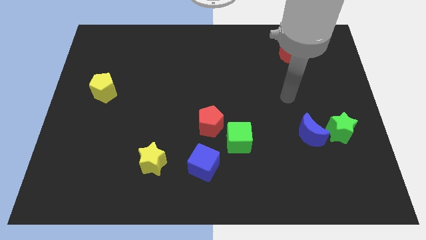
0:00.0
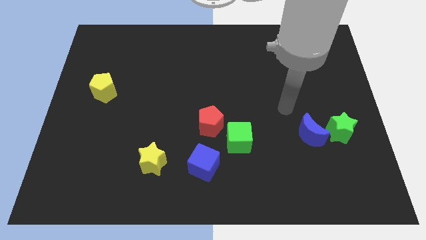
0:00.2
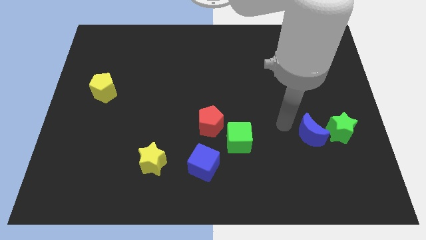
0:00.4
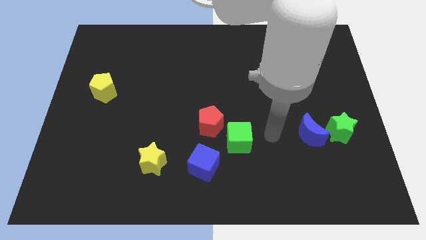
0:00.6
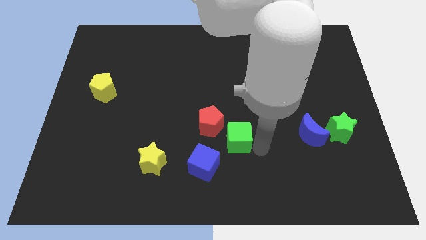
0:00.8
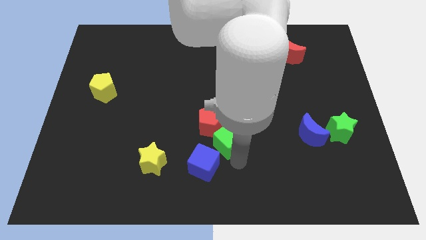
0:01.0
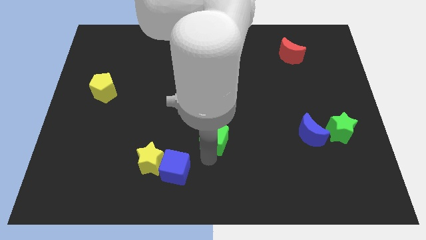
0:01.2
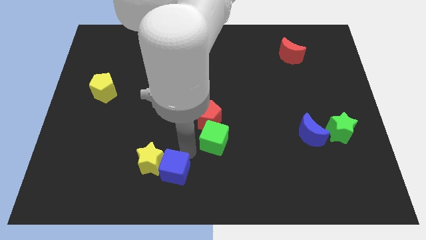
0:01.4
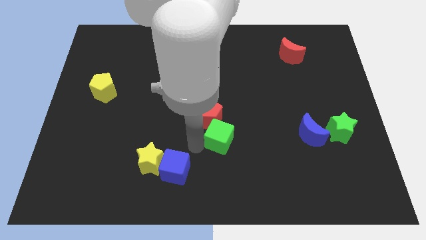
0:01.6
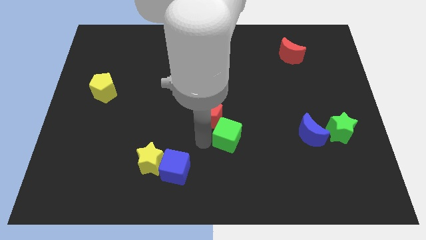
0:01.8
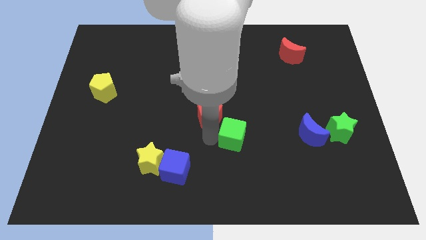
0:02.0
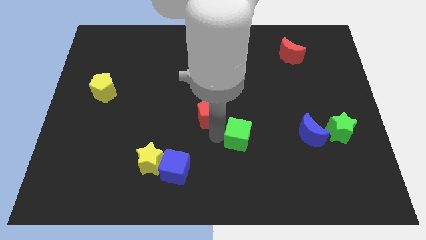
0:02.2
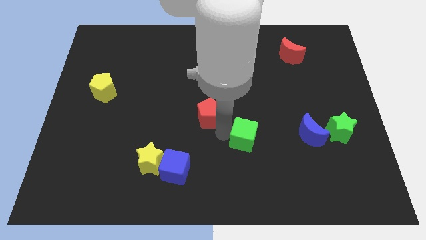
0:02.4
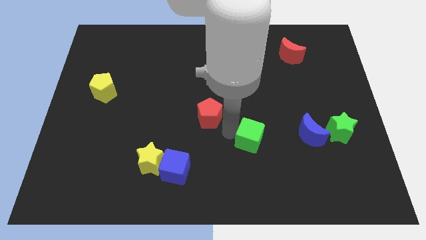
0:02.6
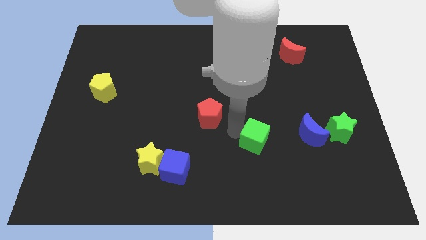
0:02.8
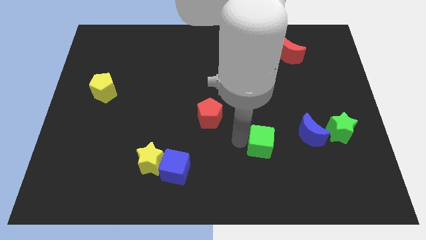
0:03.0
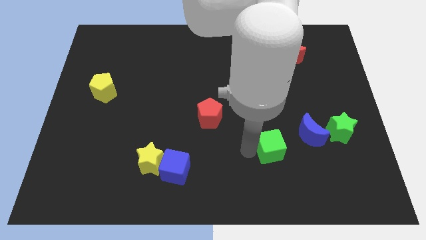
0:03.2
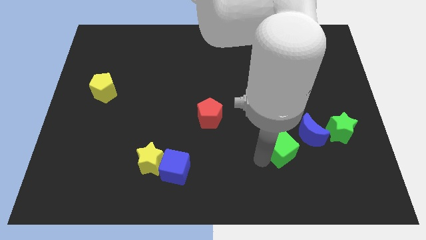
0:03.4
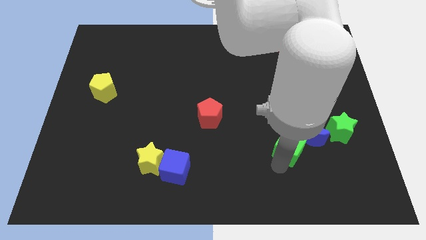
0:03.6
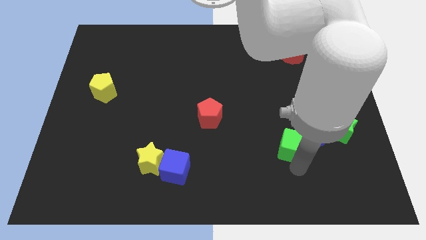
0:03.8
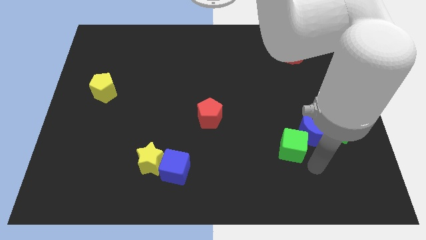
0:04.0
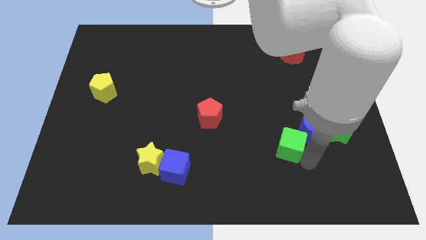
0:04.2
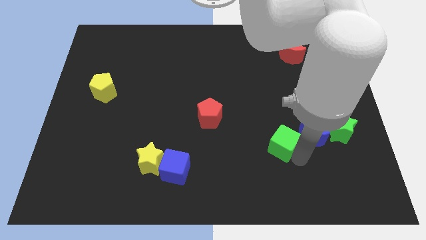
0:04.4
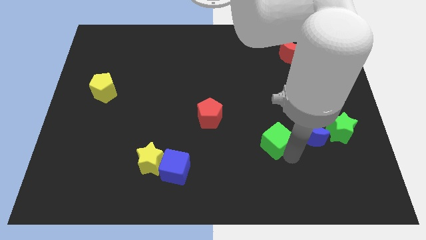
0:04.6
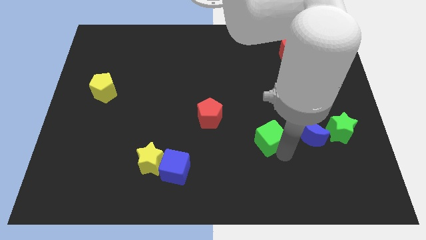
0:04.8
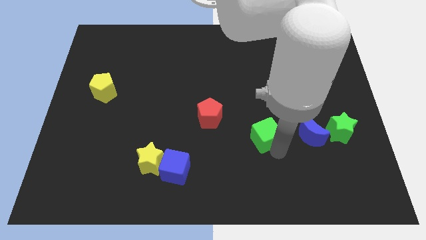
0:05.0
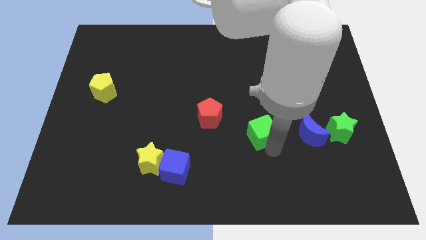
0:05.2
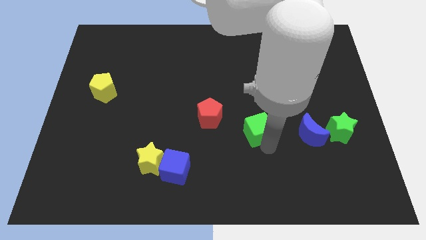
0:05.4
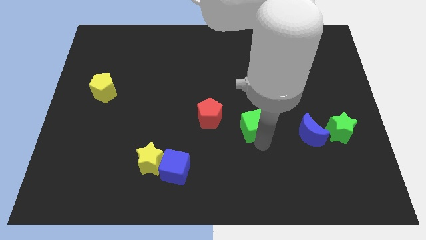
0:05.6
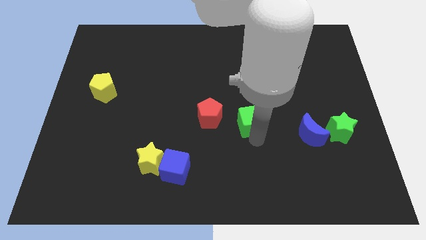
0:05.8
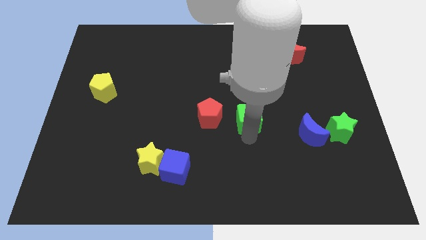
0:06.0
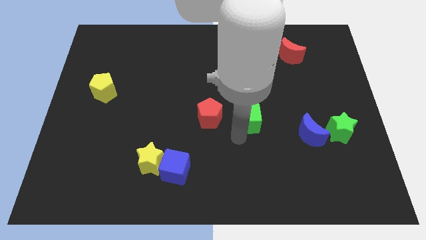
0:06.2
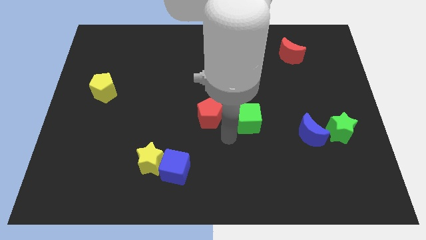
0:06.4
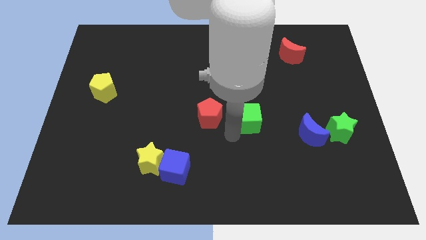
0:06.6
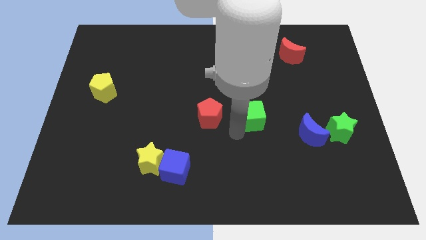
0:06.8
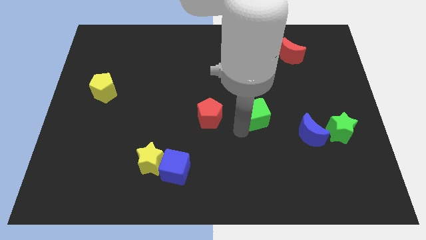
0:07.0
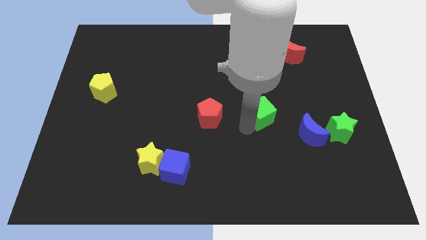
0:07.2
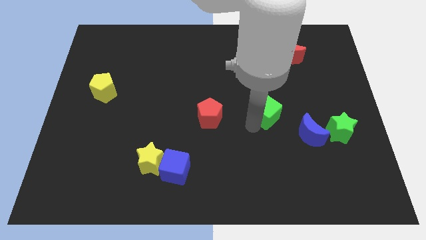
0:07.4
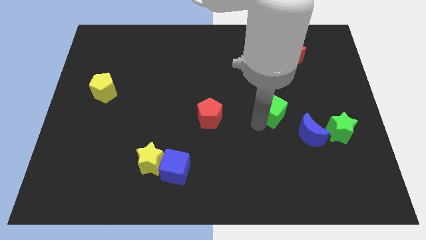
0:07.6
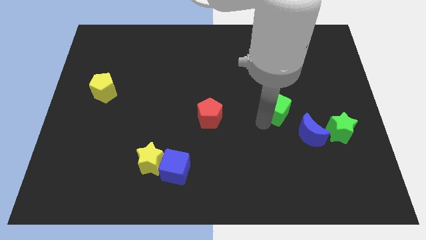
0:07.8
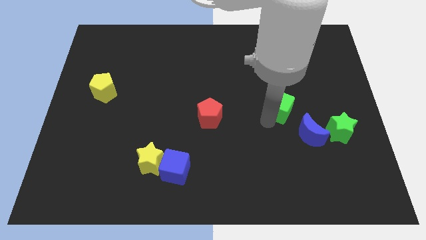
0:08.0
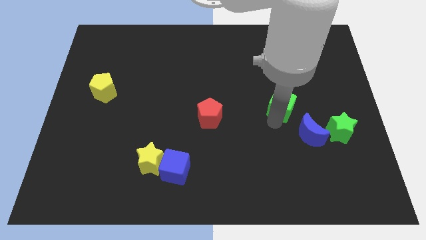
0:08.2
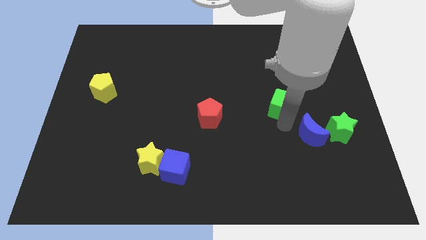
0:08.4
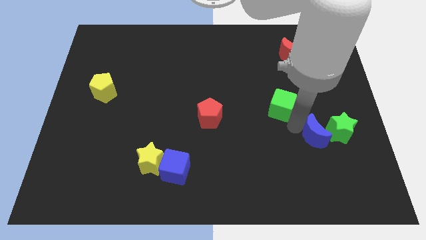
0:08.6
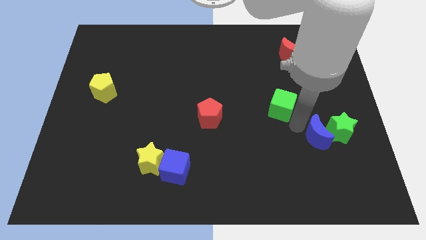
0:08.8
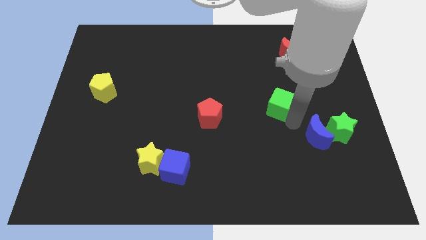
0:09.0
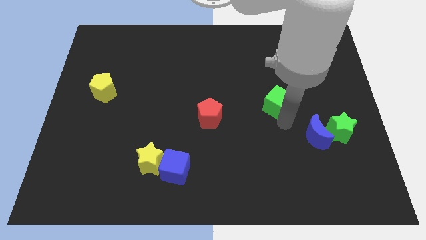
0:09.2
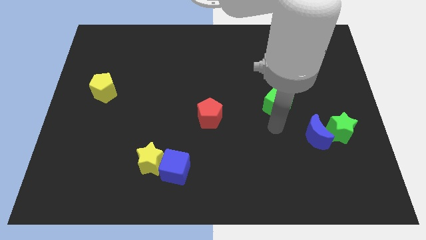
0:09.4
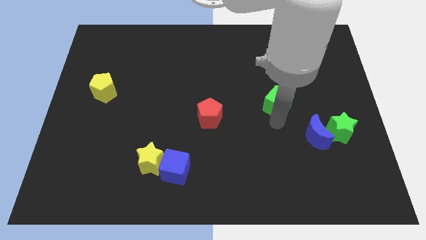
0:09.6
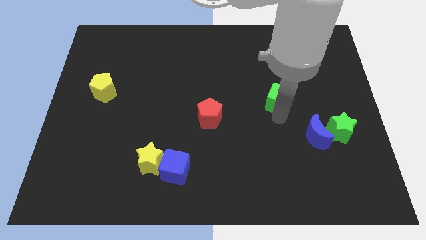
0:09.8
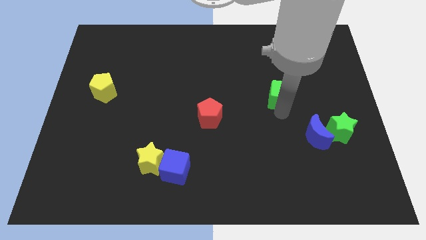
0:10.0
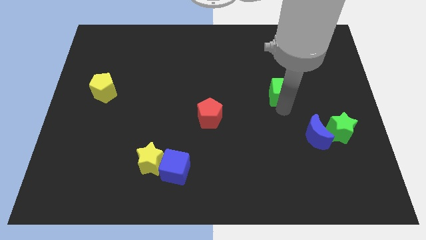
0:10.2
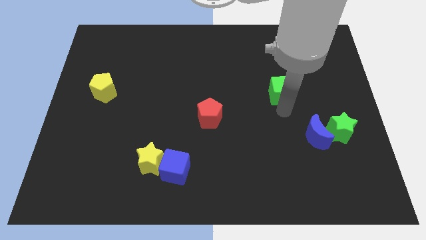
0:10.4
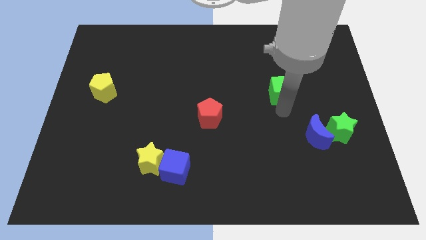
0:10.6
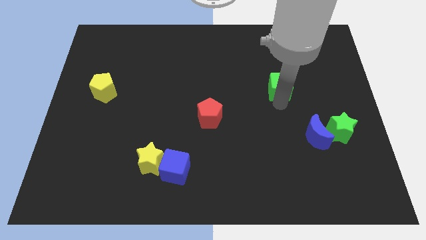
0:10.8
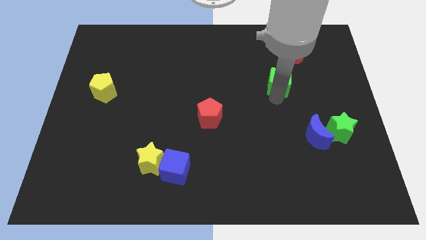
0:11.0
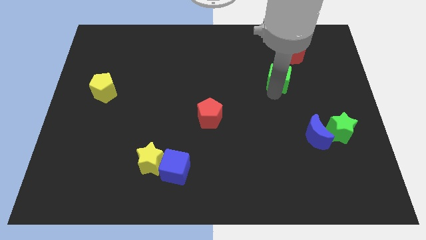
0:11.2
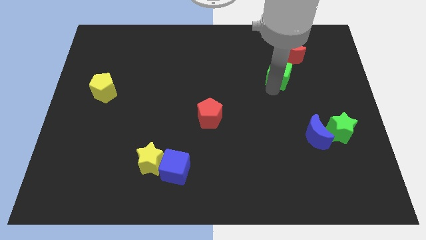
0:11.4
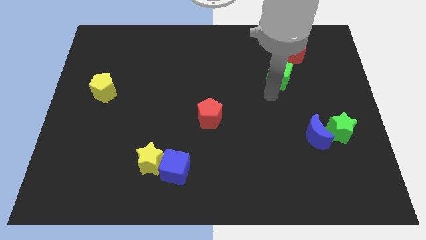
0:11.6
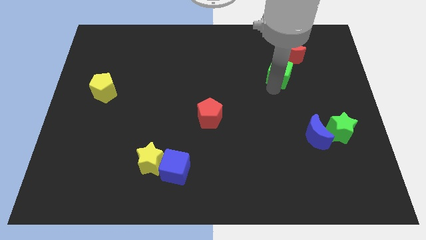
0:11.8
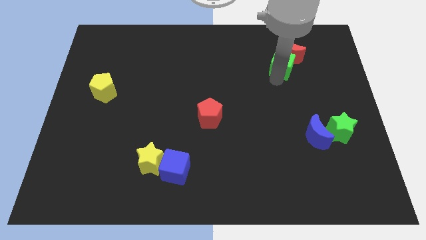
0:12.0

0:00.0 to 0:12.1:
slide the green cube next to the red moon
